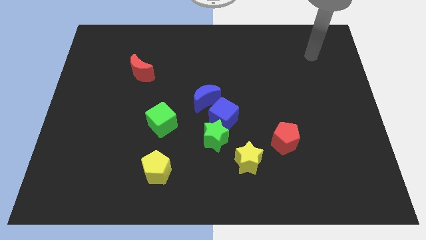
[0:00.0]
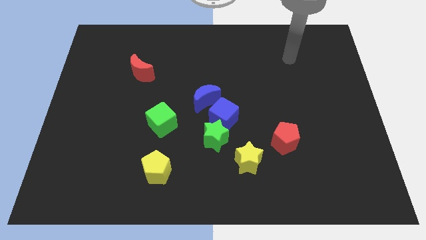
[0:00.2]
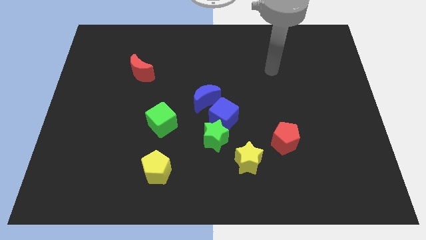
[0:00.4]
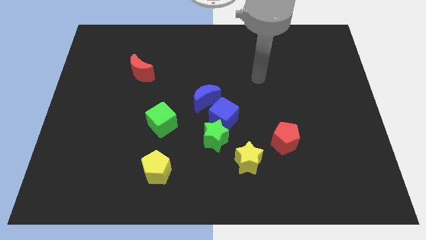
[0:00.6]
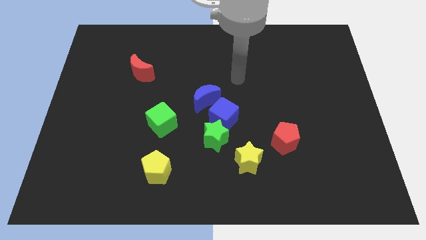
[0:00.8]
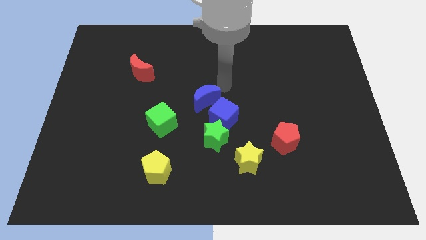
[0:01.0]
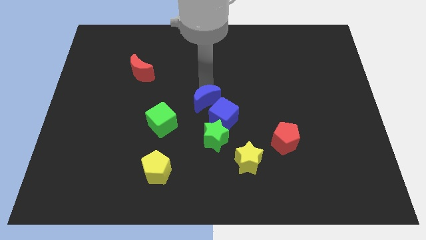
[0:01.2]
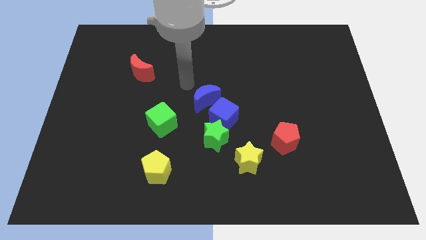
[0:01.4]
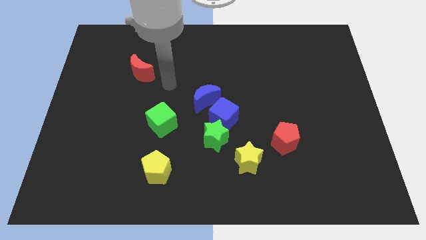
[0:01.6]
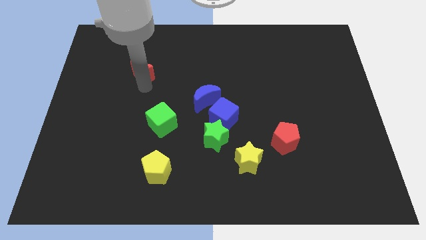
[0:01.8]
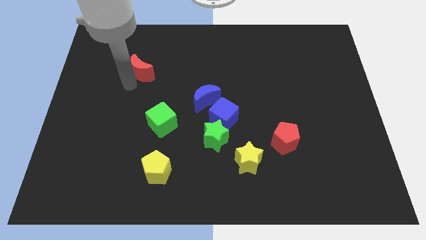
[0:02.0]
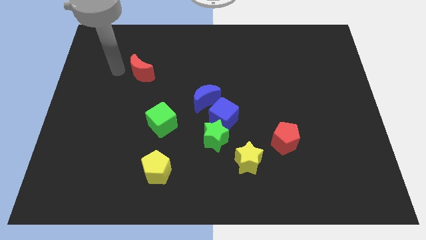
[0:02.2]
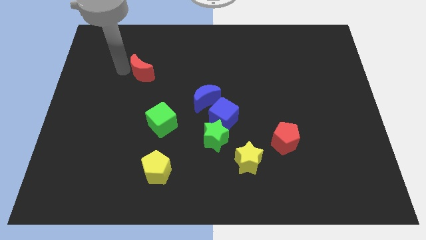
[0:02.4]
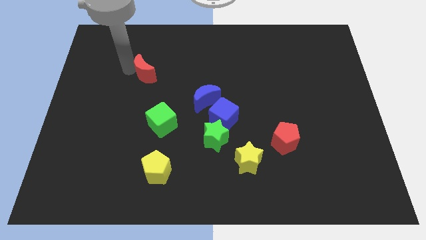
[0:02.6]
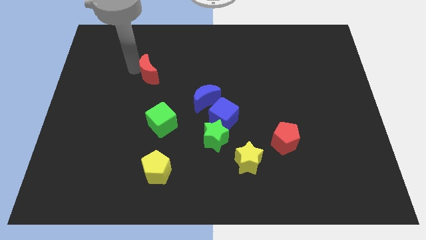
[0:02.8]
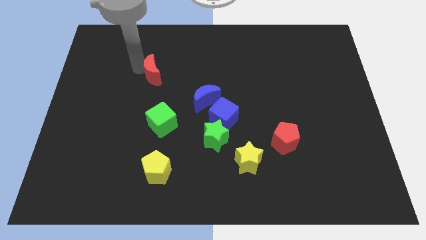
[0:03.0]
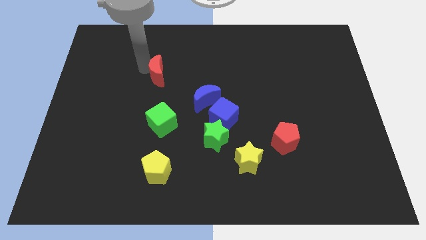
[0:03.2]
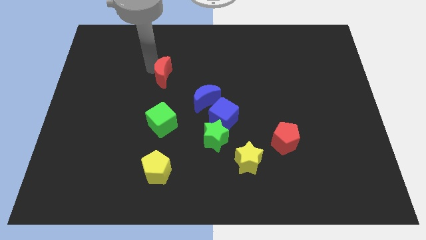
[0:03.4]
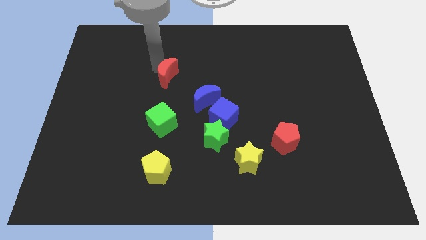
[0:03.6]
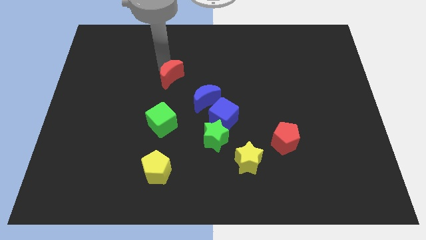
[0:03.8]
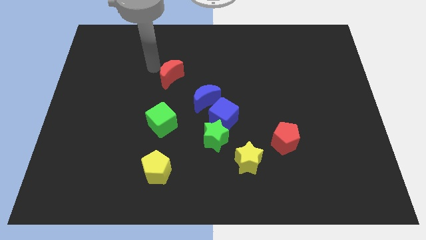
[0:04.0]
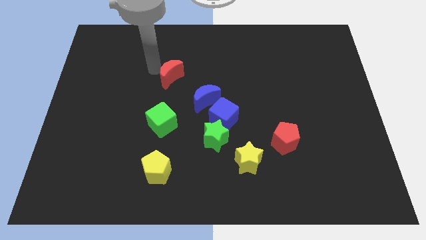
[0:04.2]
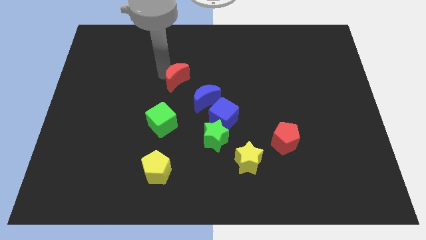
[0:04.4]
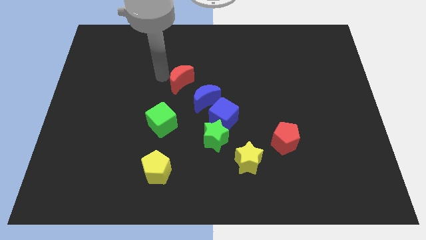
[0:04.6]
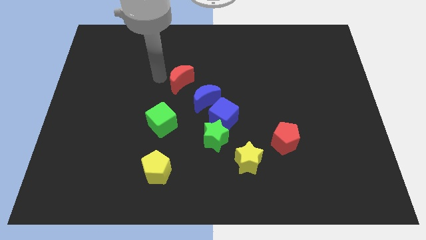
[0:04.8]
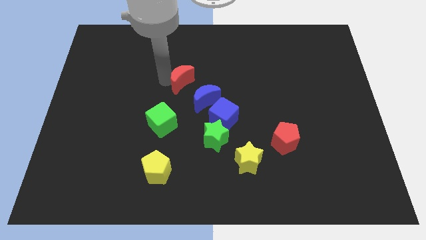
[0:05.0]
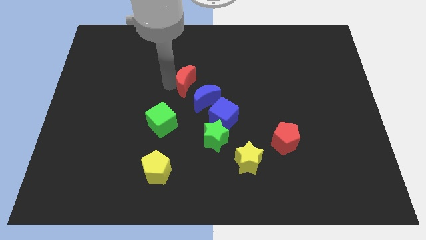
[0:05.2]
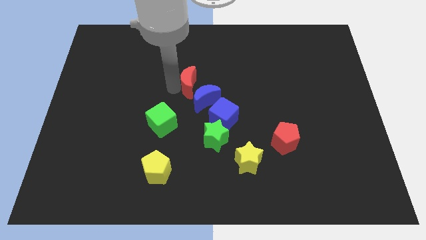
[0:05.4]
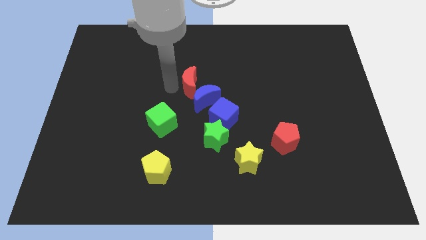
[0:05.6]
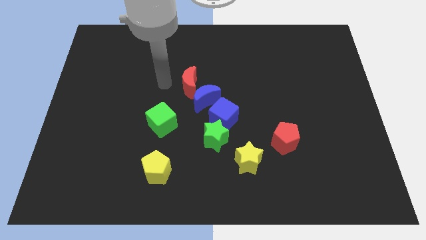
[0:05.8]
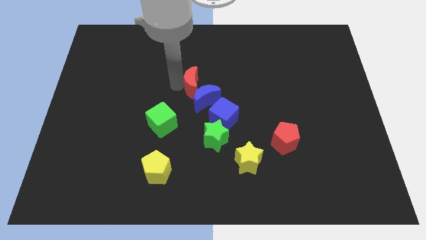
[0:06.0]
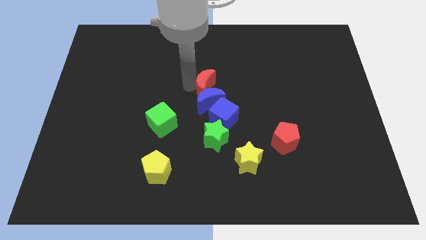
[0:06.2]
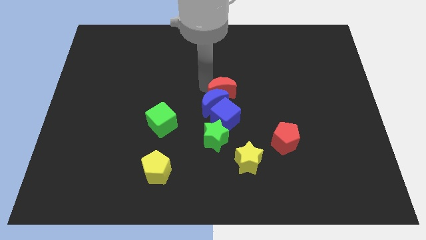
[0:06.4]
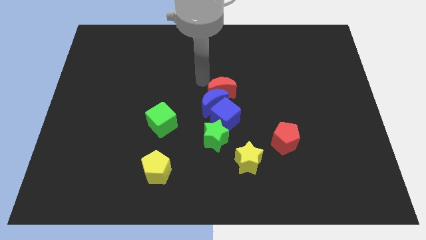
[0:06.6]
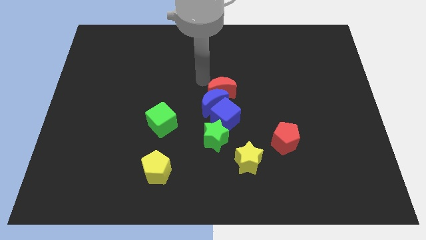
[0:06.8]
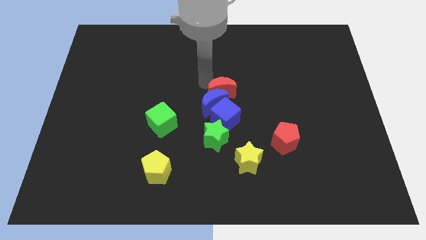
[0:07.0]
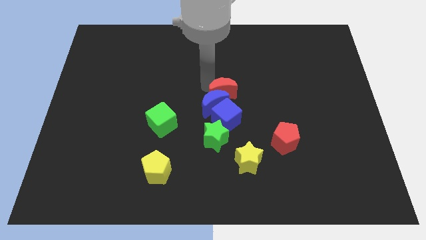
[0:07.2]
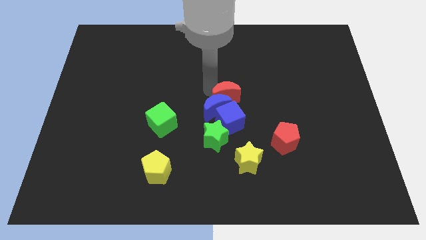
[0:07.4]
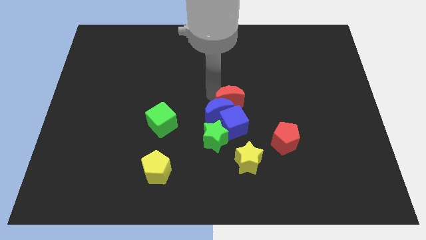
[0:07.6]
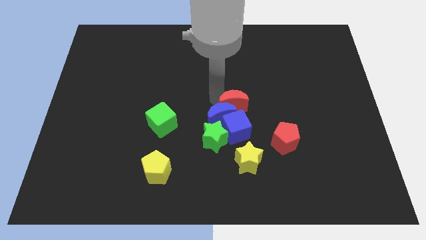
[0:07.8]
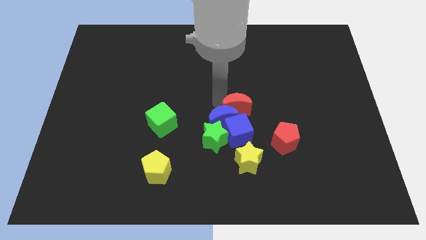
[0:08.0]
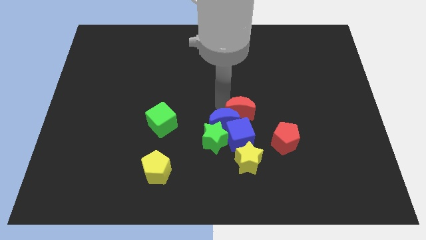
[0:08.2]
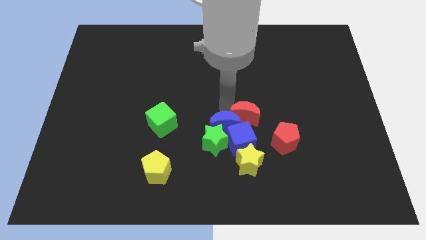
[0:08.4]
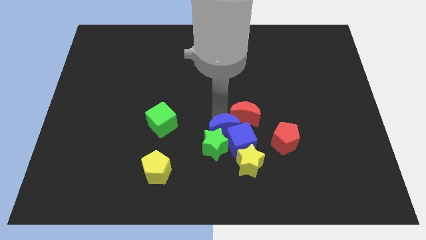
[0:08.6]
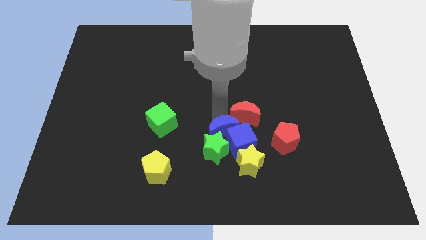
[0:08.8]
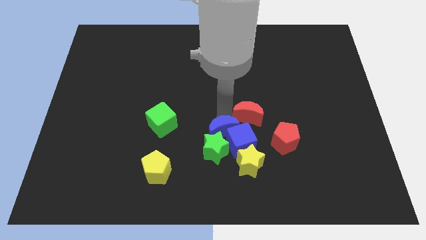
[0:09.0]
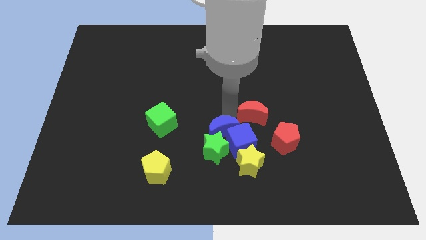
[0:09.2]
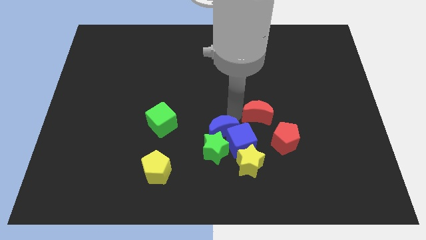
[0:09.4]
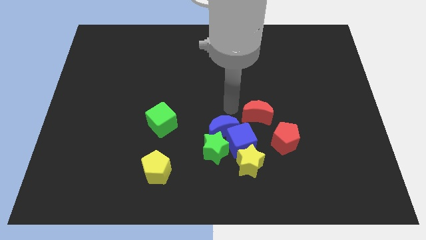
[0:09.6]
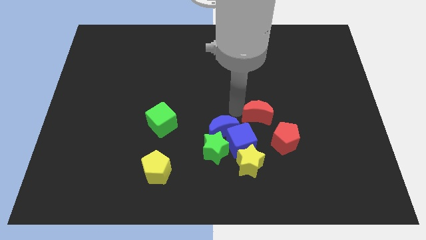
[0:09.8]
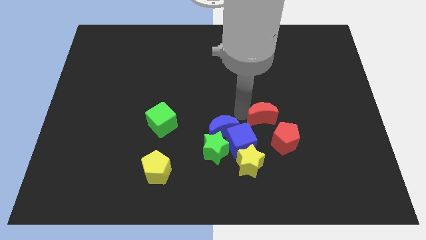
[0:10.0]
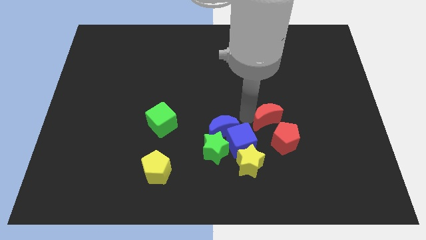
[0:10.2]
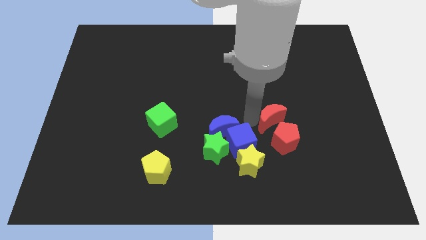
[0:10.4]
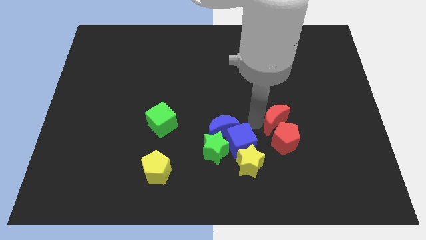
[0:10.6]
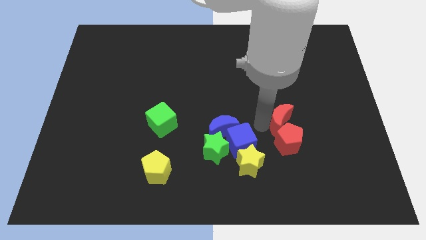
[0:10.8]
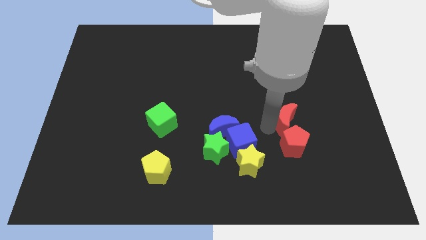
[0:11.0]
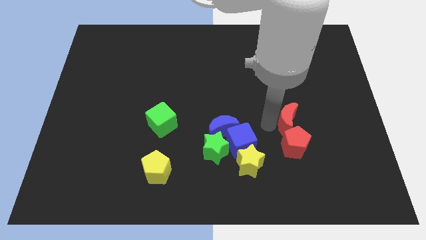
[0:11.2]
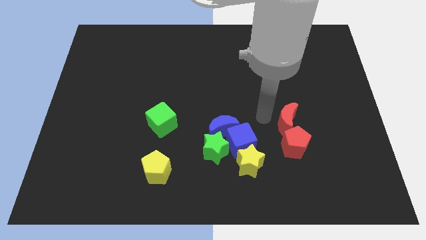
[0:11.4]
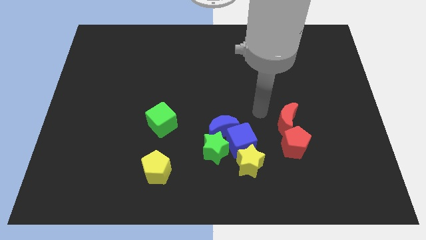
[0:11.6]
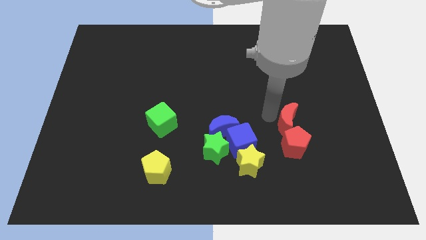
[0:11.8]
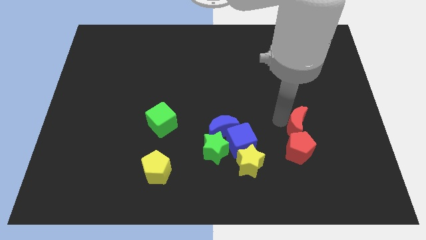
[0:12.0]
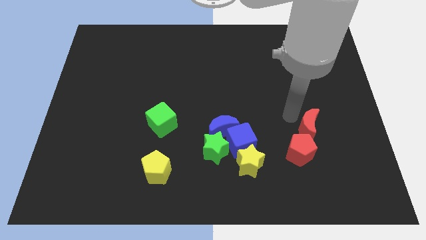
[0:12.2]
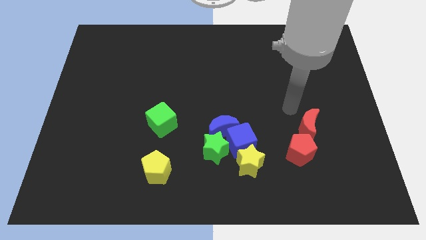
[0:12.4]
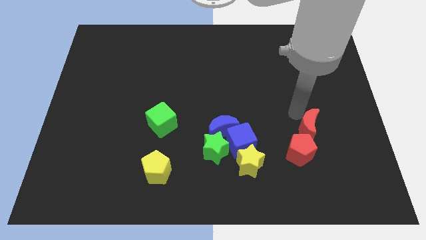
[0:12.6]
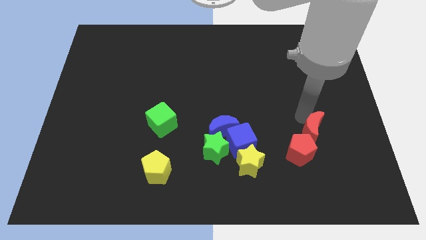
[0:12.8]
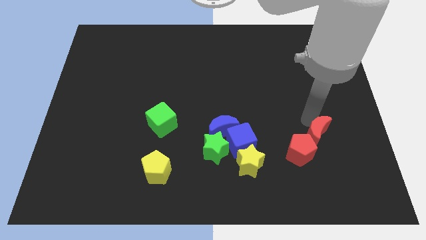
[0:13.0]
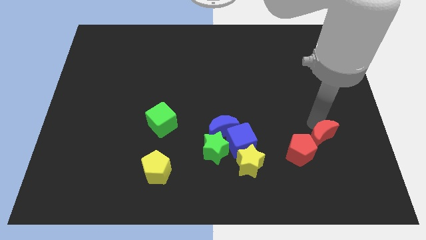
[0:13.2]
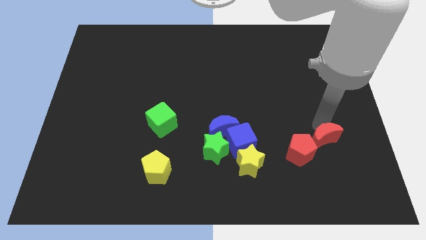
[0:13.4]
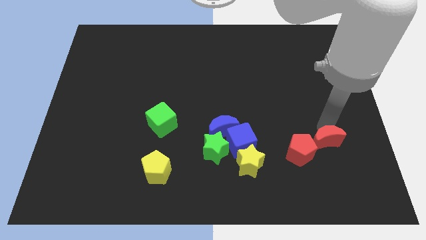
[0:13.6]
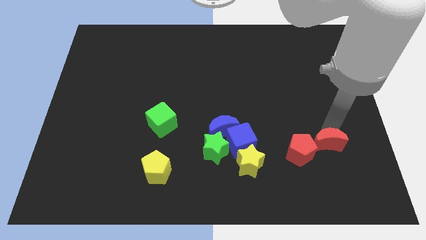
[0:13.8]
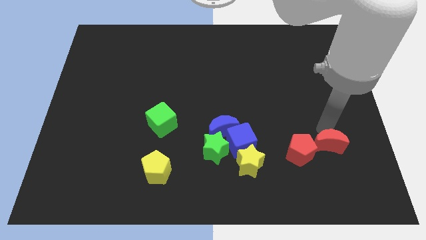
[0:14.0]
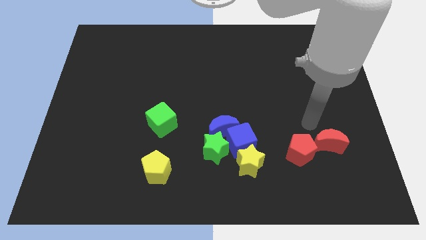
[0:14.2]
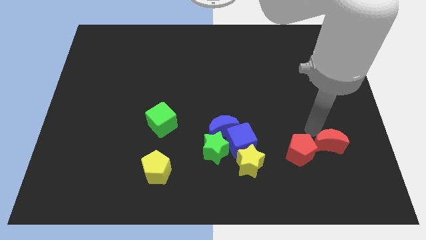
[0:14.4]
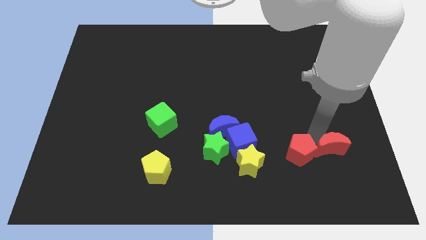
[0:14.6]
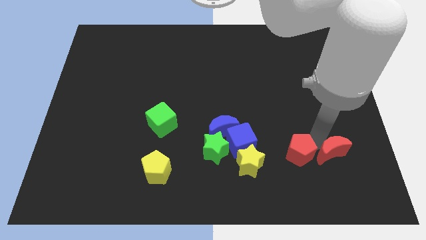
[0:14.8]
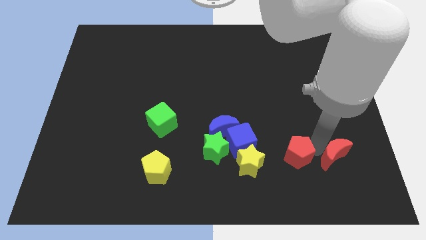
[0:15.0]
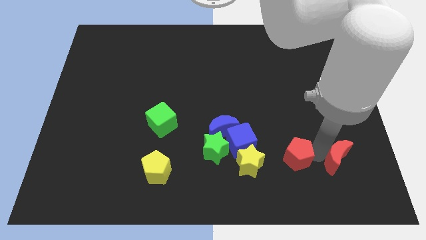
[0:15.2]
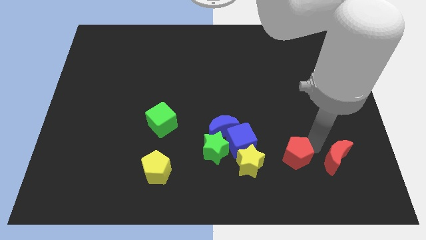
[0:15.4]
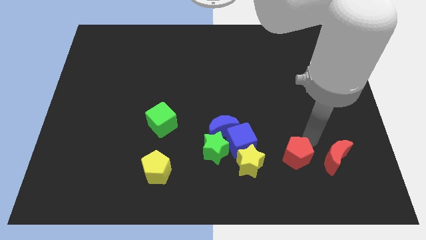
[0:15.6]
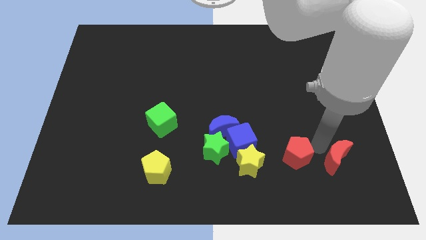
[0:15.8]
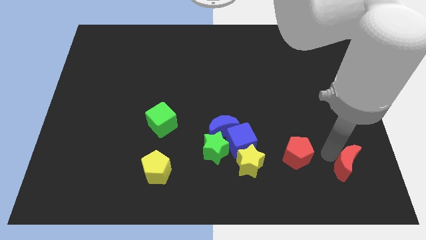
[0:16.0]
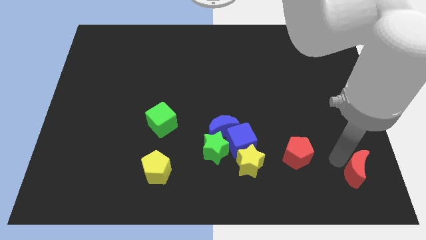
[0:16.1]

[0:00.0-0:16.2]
move the red moon to the bottom right of the board
